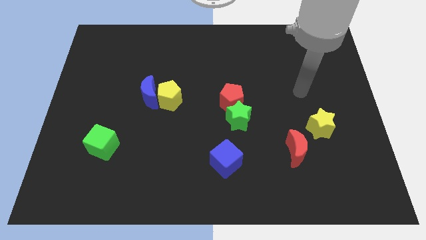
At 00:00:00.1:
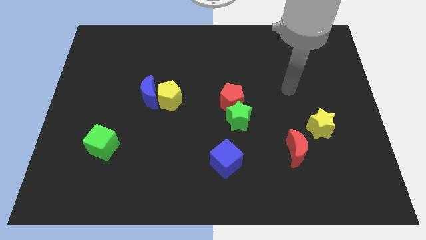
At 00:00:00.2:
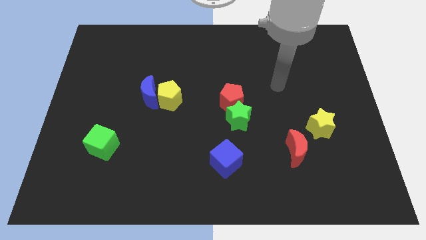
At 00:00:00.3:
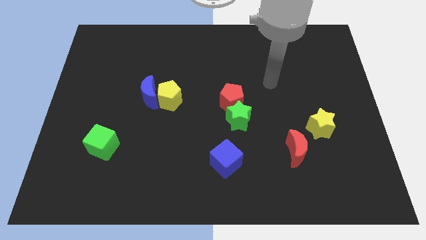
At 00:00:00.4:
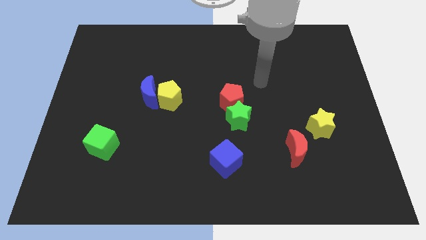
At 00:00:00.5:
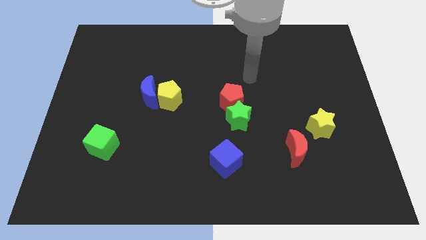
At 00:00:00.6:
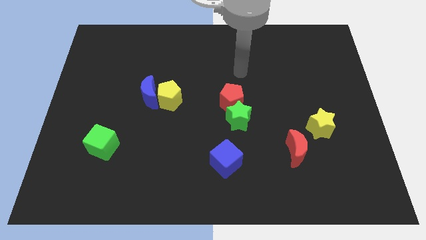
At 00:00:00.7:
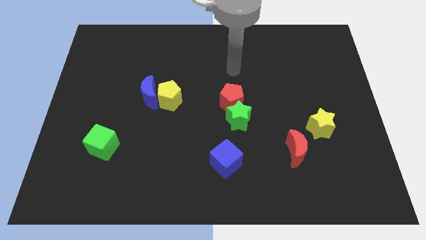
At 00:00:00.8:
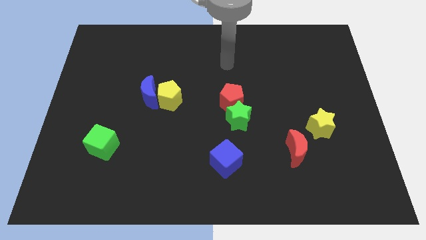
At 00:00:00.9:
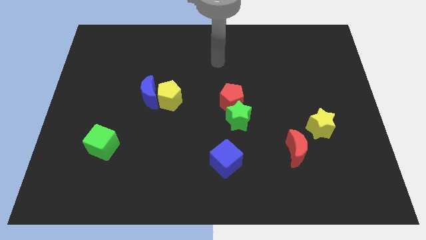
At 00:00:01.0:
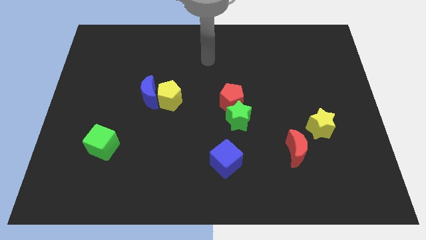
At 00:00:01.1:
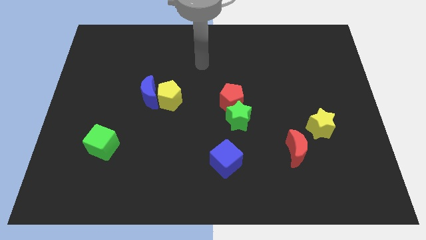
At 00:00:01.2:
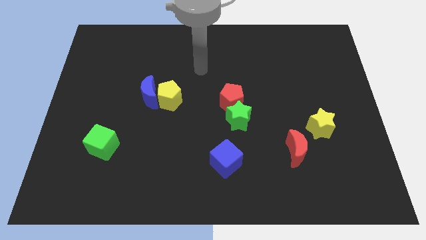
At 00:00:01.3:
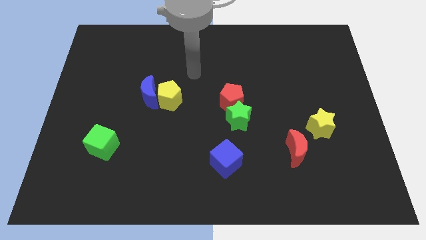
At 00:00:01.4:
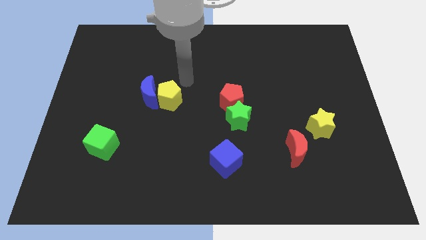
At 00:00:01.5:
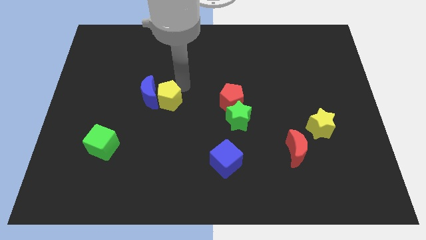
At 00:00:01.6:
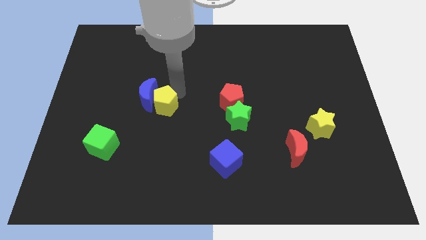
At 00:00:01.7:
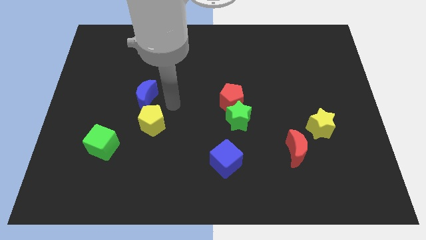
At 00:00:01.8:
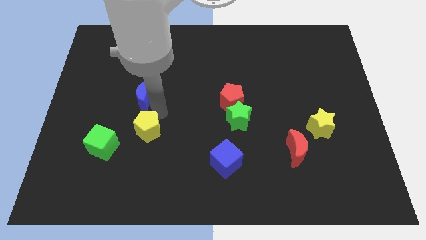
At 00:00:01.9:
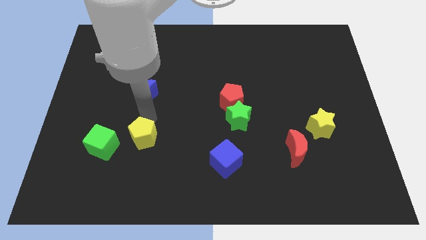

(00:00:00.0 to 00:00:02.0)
pull the blue moon apart from the yellow pentagon

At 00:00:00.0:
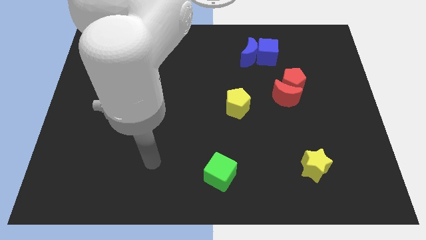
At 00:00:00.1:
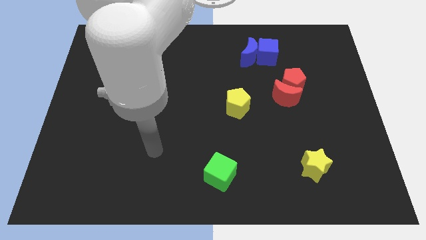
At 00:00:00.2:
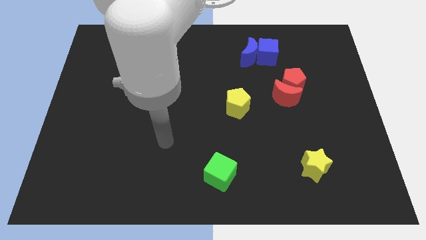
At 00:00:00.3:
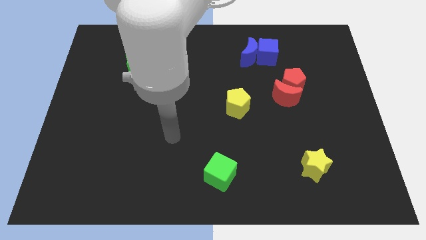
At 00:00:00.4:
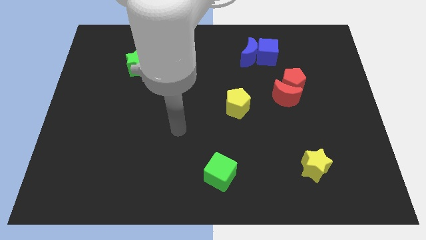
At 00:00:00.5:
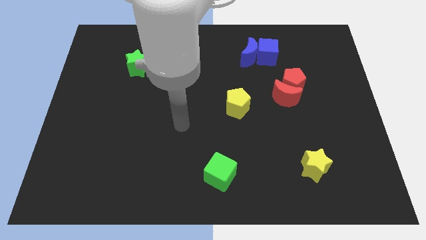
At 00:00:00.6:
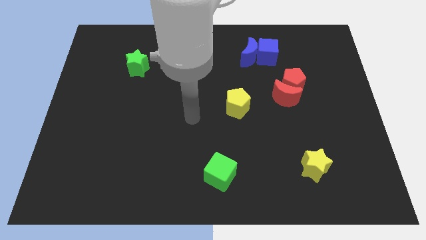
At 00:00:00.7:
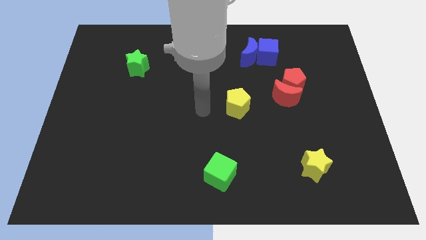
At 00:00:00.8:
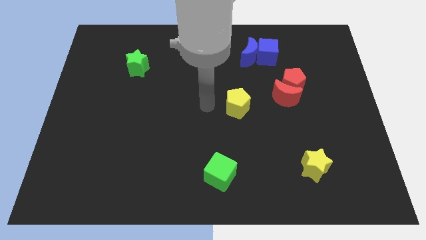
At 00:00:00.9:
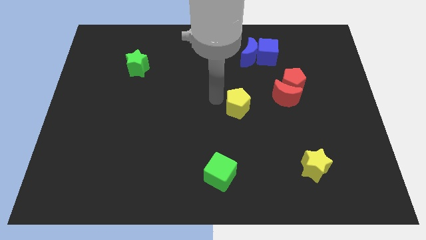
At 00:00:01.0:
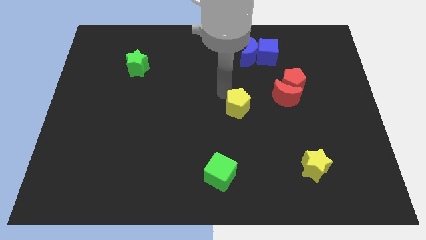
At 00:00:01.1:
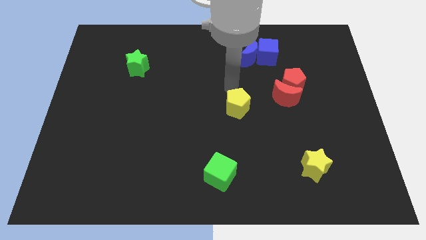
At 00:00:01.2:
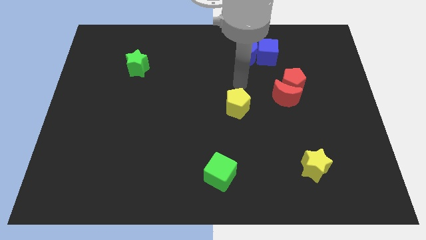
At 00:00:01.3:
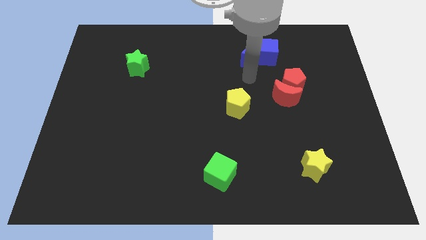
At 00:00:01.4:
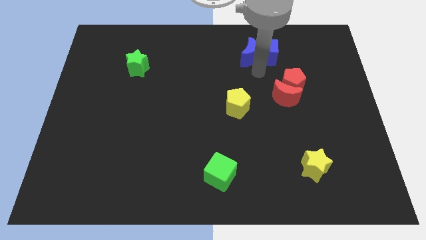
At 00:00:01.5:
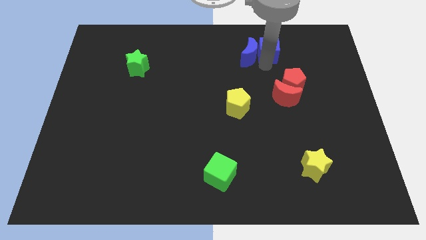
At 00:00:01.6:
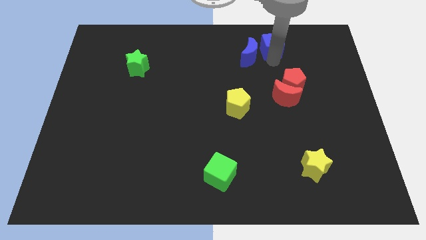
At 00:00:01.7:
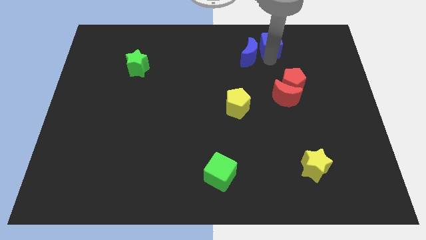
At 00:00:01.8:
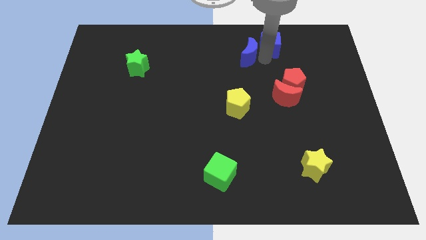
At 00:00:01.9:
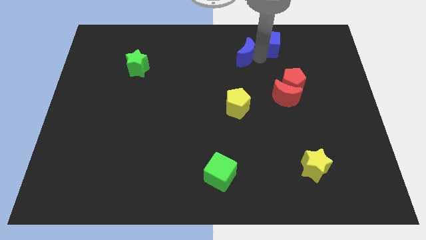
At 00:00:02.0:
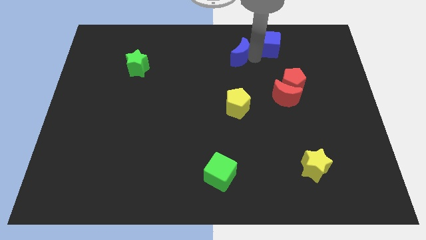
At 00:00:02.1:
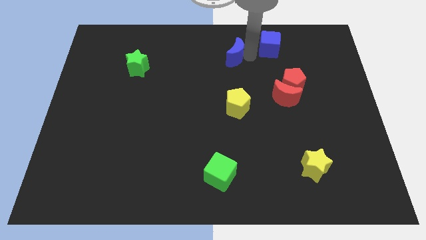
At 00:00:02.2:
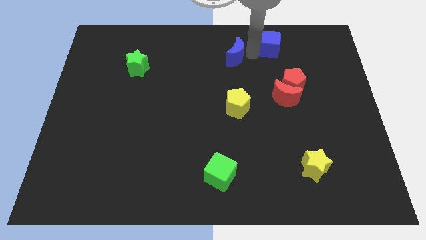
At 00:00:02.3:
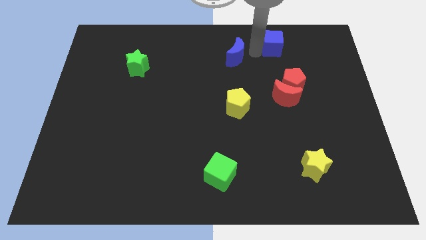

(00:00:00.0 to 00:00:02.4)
separate the blue moon from the blue cube

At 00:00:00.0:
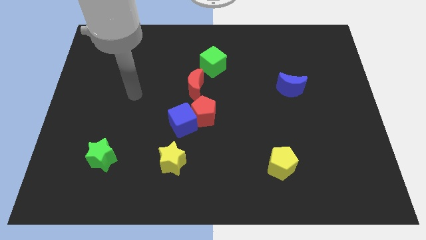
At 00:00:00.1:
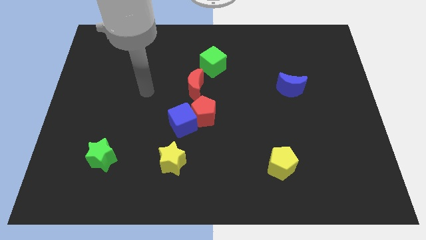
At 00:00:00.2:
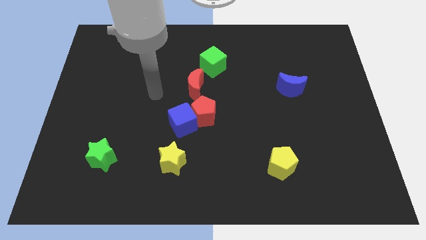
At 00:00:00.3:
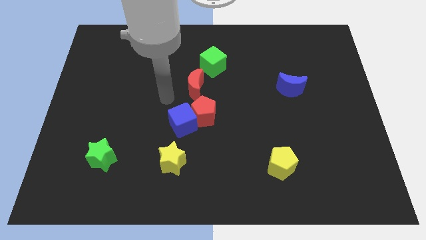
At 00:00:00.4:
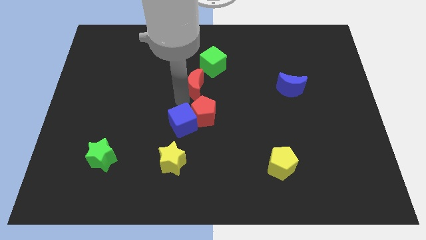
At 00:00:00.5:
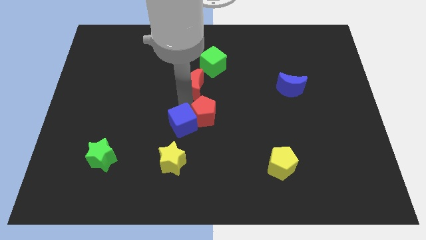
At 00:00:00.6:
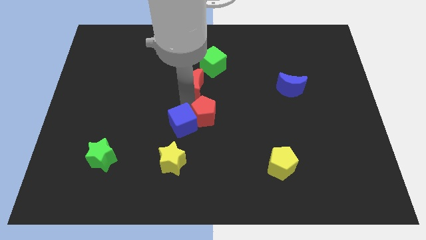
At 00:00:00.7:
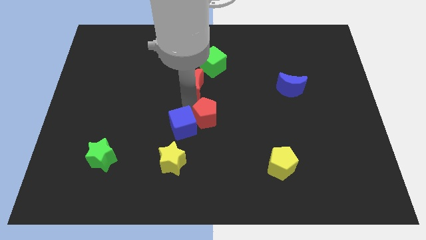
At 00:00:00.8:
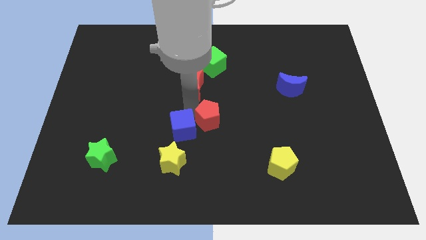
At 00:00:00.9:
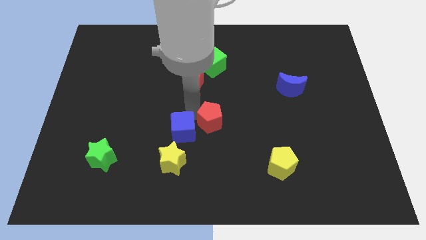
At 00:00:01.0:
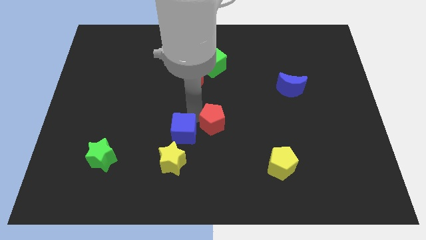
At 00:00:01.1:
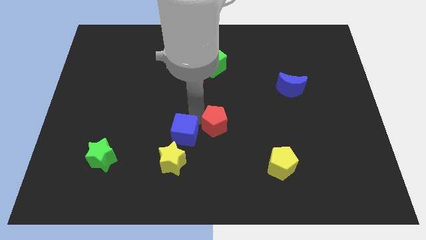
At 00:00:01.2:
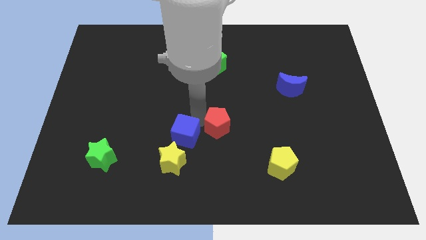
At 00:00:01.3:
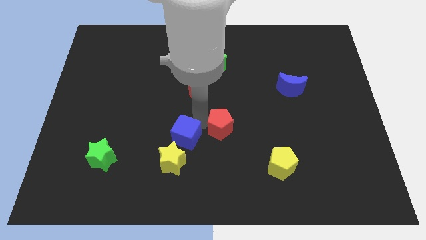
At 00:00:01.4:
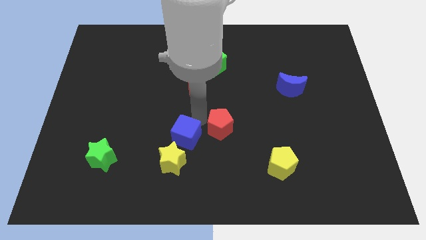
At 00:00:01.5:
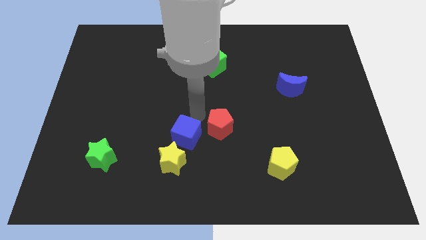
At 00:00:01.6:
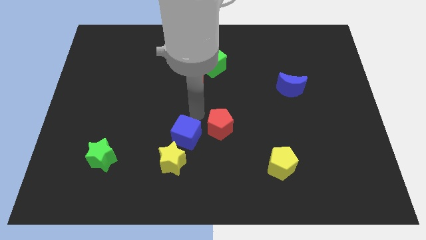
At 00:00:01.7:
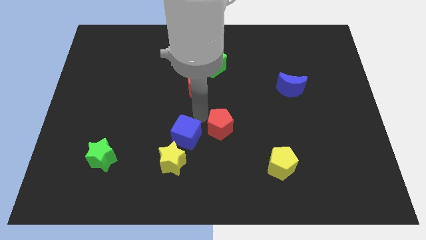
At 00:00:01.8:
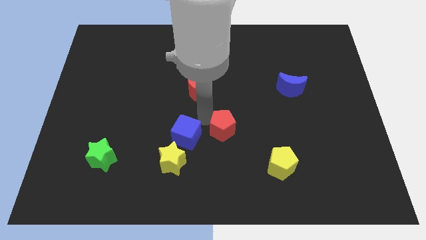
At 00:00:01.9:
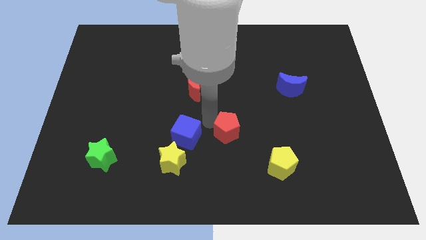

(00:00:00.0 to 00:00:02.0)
pull the red pentagon apart from the blue cube and red moon

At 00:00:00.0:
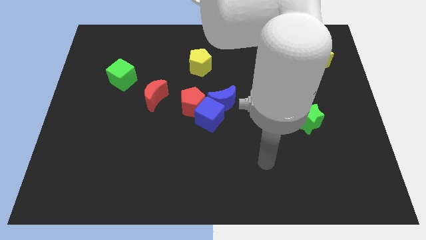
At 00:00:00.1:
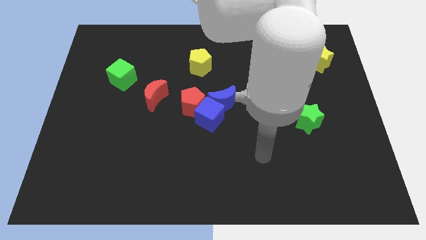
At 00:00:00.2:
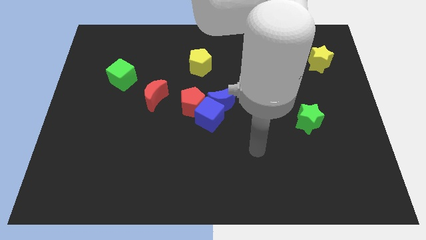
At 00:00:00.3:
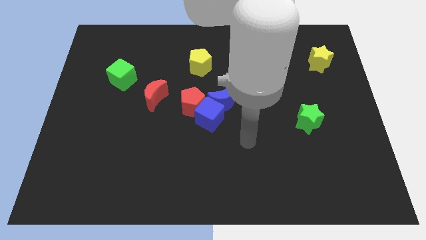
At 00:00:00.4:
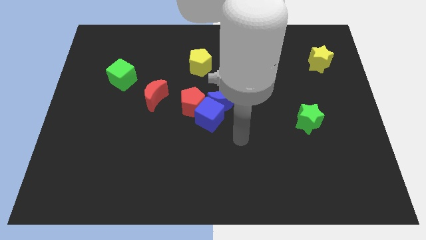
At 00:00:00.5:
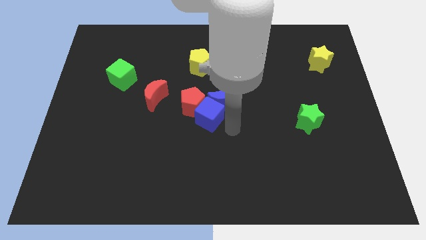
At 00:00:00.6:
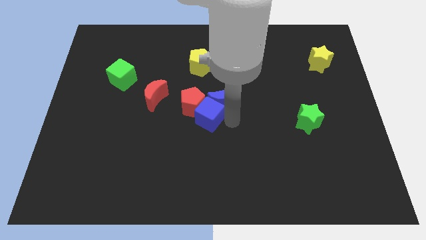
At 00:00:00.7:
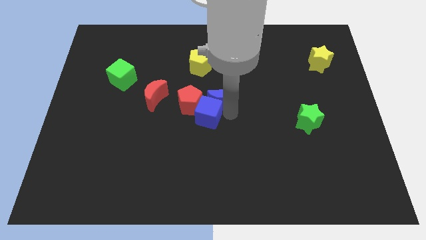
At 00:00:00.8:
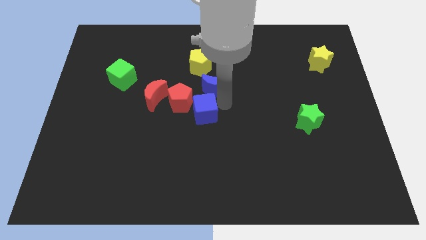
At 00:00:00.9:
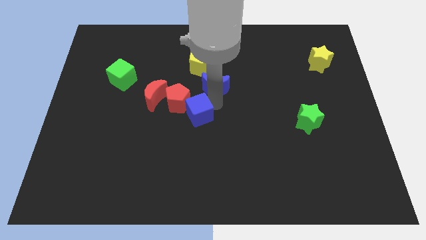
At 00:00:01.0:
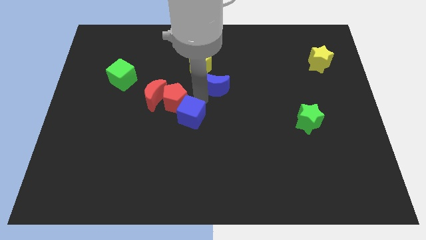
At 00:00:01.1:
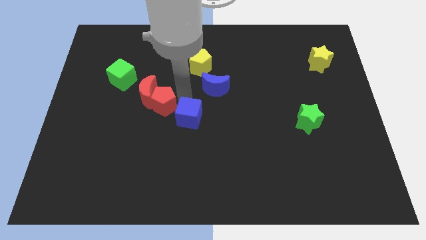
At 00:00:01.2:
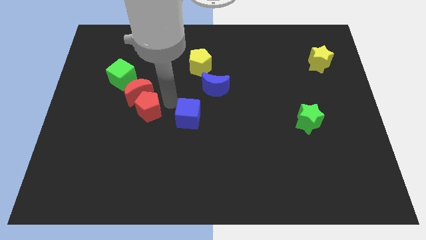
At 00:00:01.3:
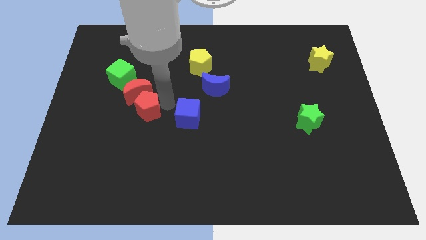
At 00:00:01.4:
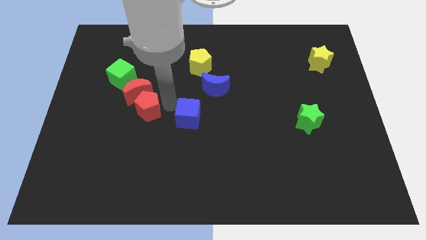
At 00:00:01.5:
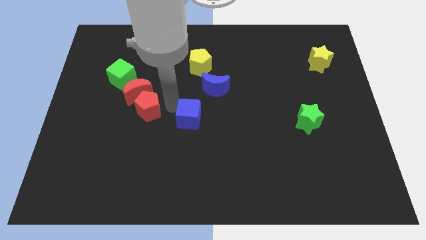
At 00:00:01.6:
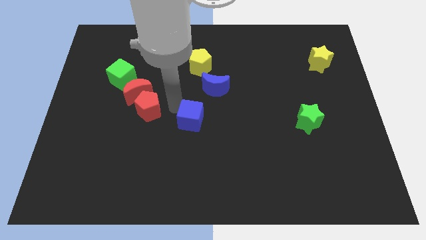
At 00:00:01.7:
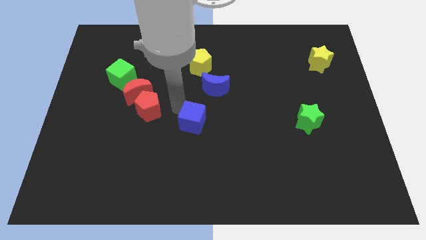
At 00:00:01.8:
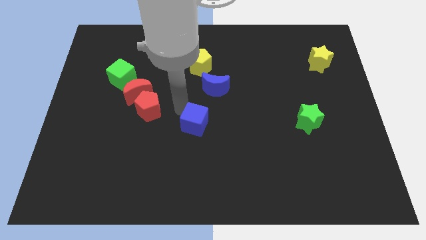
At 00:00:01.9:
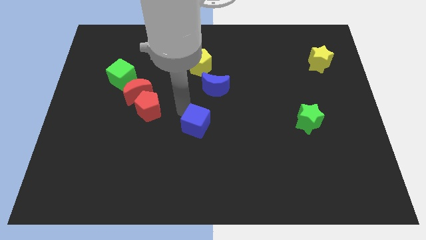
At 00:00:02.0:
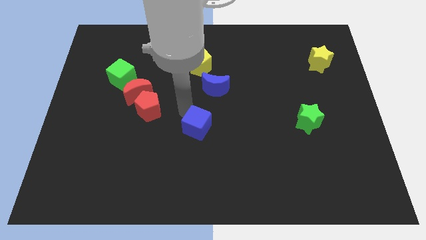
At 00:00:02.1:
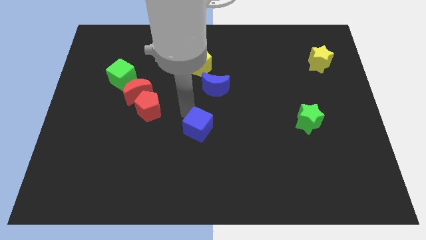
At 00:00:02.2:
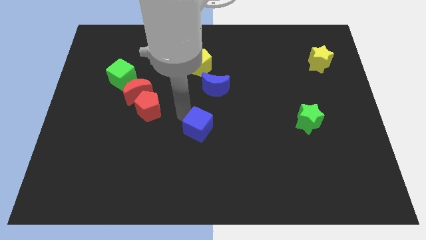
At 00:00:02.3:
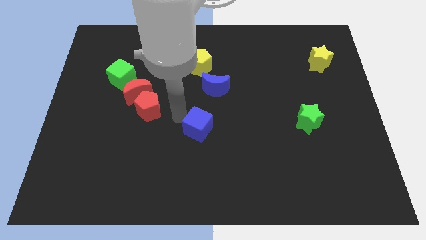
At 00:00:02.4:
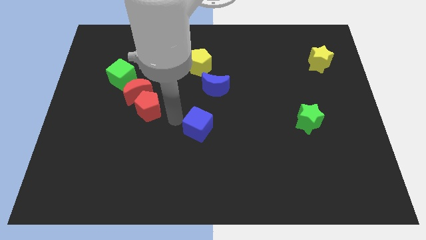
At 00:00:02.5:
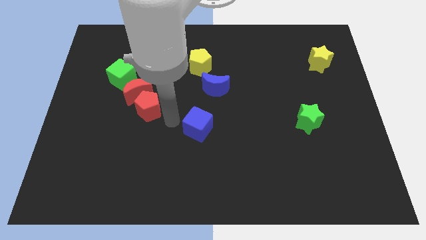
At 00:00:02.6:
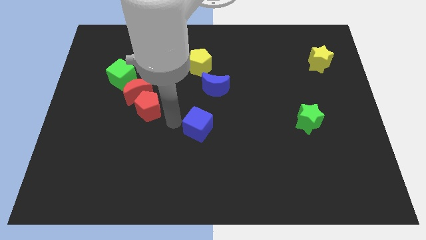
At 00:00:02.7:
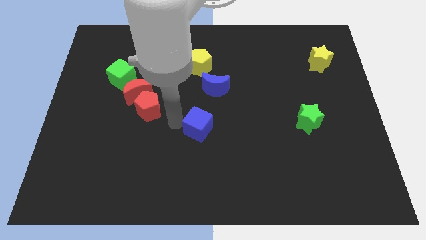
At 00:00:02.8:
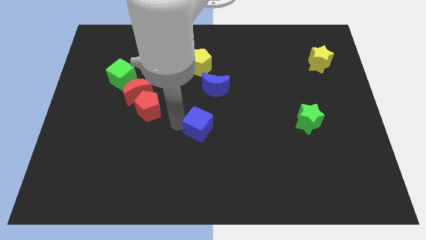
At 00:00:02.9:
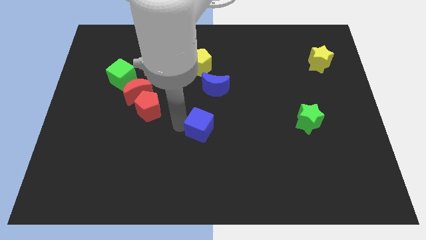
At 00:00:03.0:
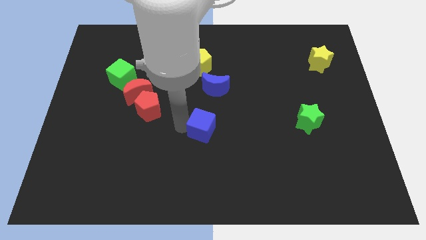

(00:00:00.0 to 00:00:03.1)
move the blue cube away from the red pentagon and blue moon
